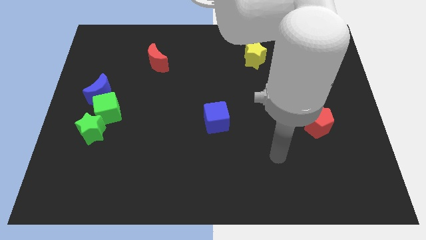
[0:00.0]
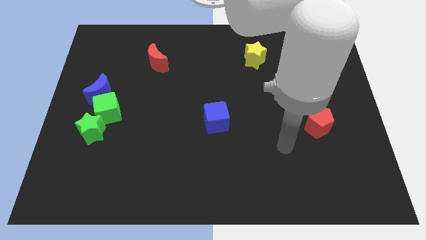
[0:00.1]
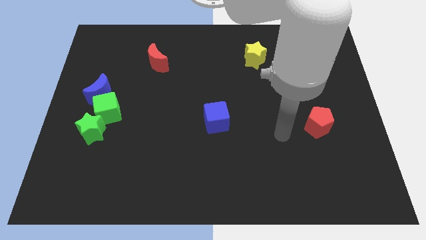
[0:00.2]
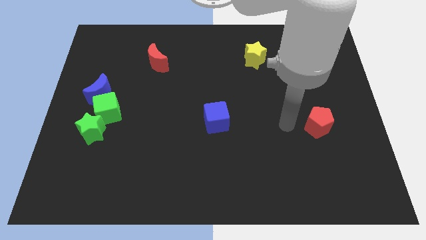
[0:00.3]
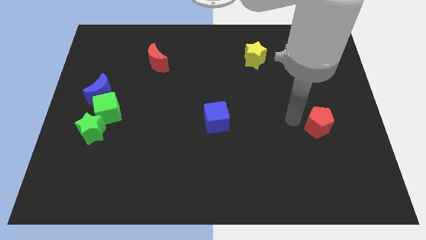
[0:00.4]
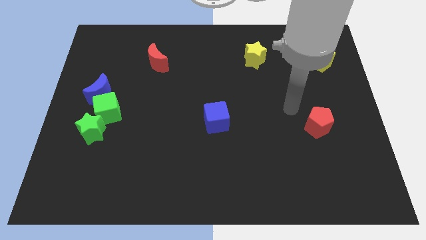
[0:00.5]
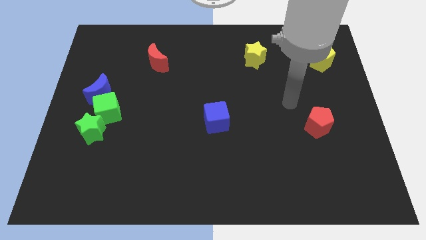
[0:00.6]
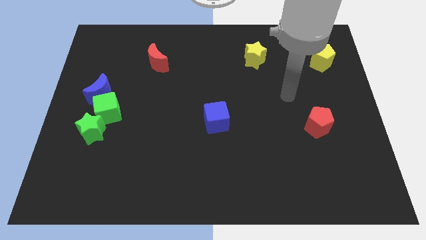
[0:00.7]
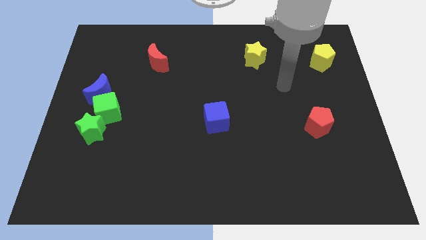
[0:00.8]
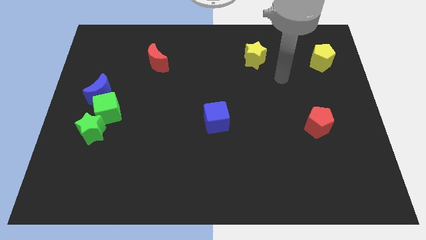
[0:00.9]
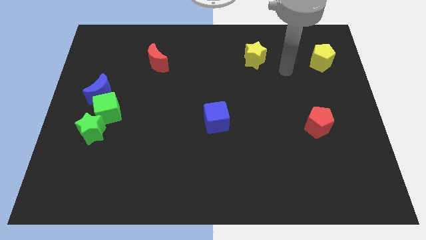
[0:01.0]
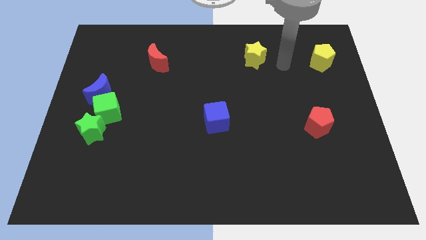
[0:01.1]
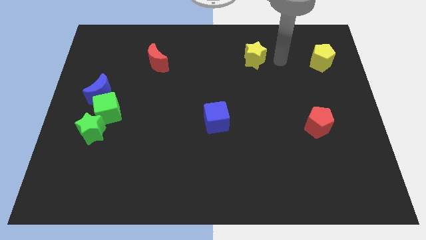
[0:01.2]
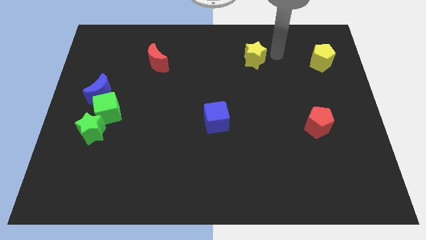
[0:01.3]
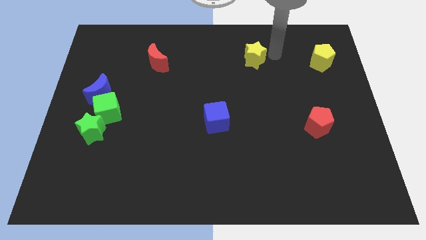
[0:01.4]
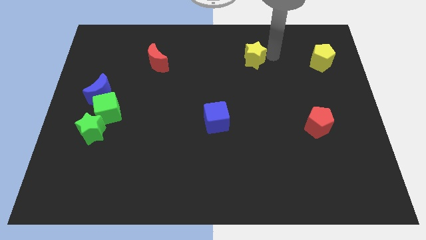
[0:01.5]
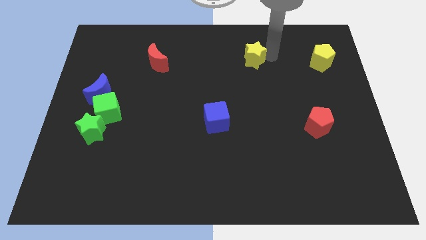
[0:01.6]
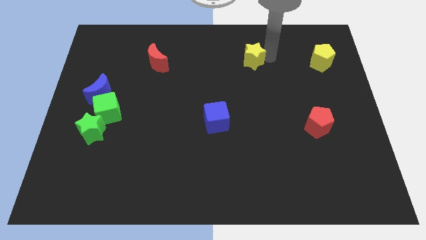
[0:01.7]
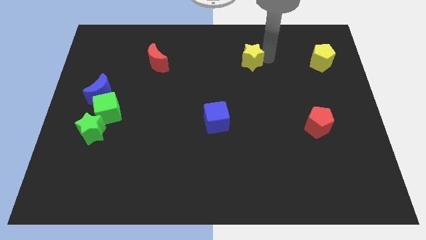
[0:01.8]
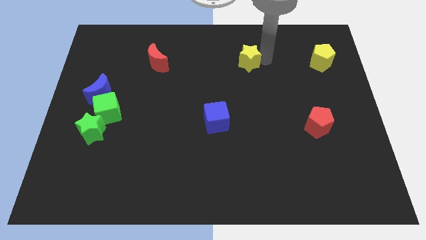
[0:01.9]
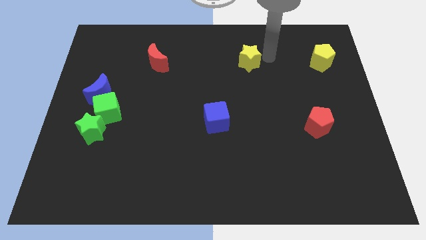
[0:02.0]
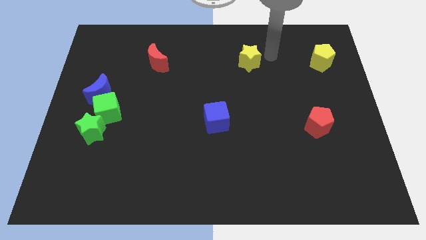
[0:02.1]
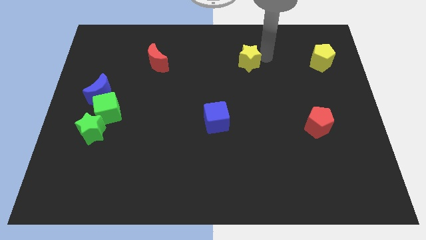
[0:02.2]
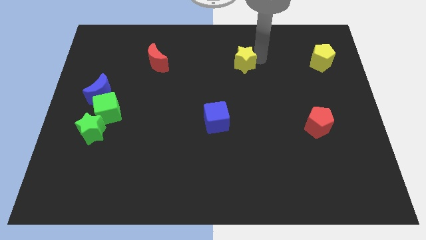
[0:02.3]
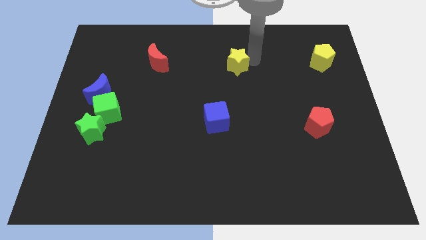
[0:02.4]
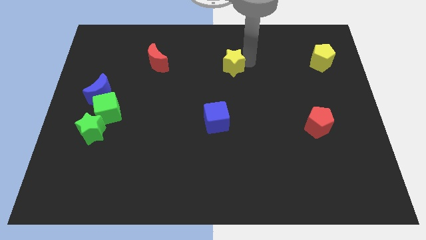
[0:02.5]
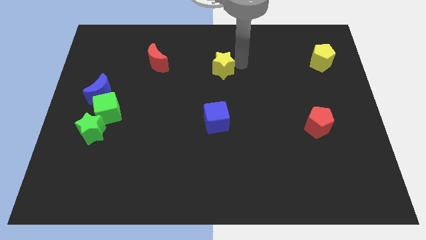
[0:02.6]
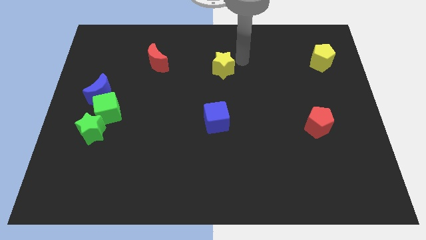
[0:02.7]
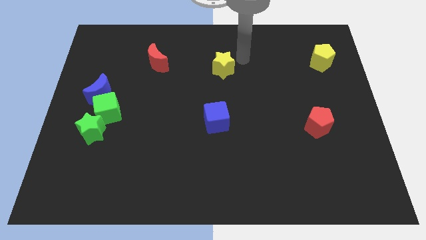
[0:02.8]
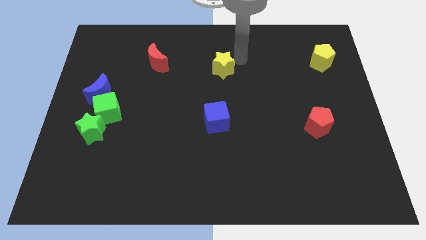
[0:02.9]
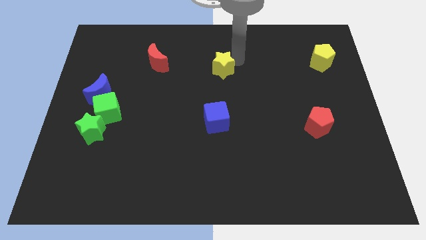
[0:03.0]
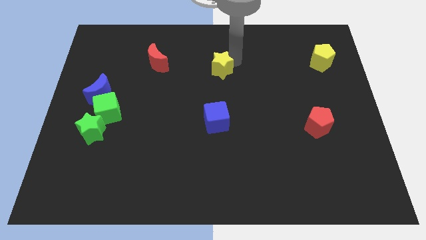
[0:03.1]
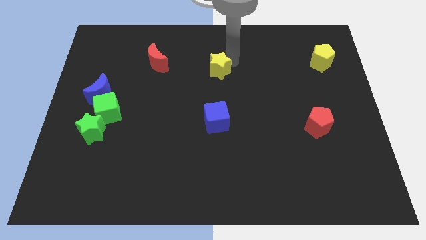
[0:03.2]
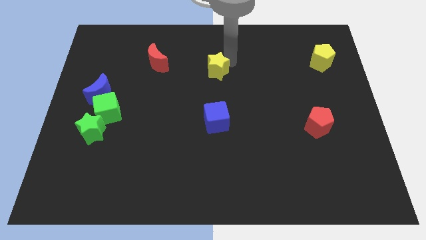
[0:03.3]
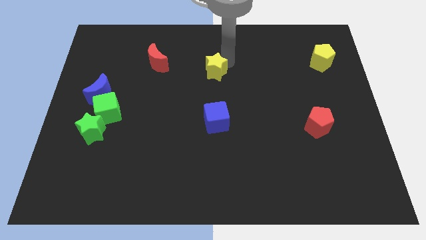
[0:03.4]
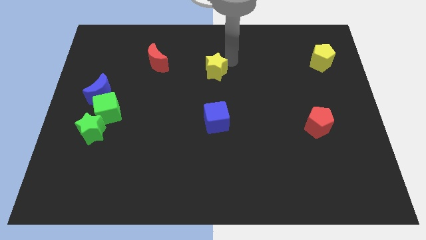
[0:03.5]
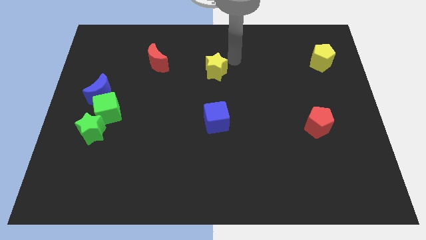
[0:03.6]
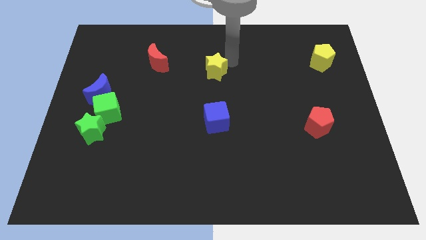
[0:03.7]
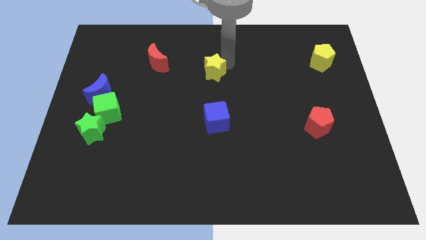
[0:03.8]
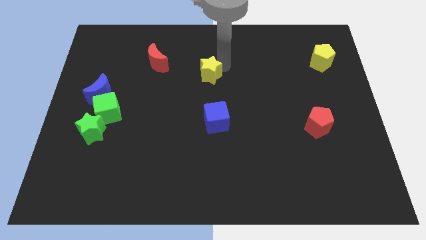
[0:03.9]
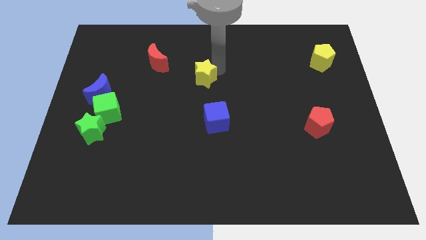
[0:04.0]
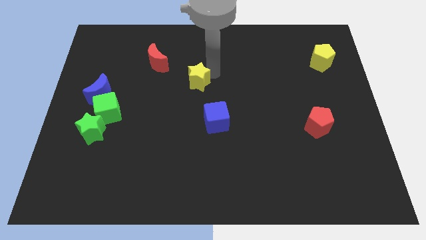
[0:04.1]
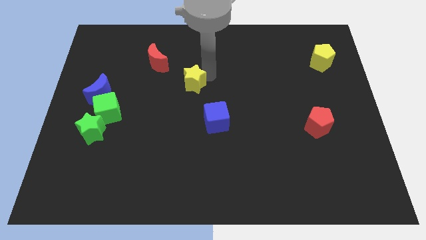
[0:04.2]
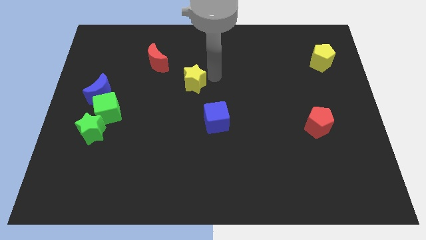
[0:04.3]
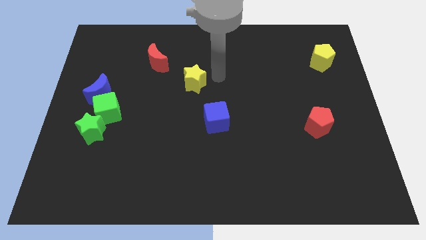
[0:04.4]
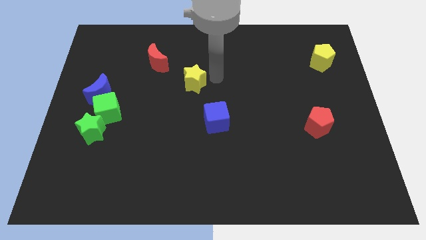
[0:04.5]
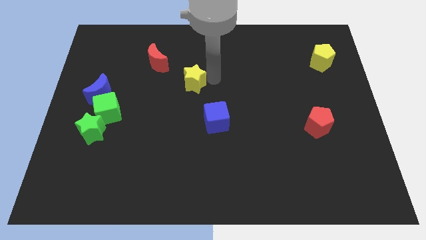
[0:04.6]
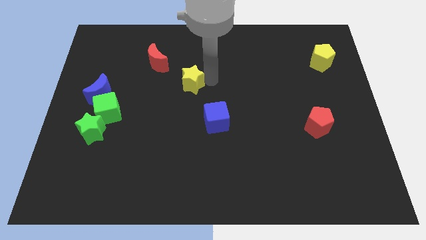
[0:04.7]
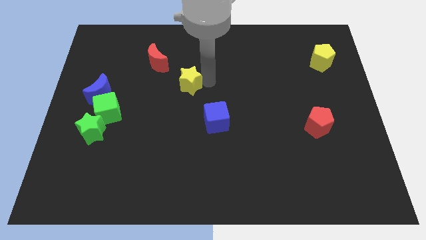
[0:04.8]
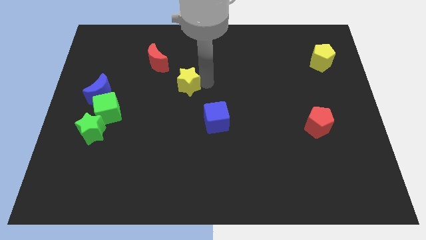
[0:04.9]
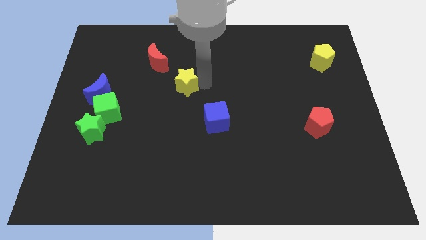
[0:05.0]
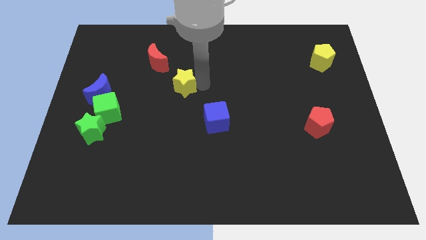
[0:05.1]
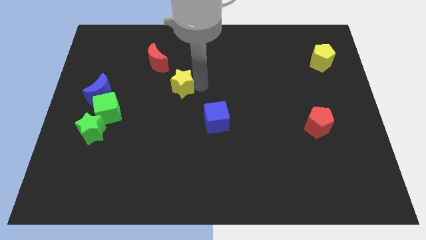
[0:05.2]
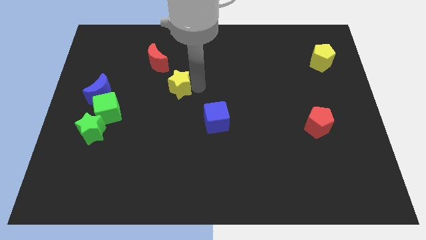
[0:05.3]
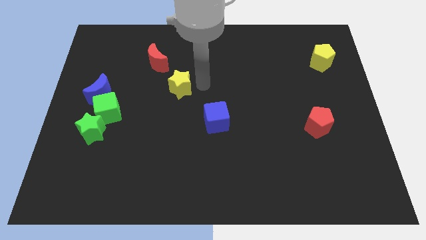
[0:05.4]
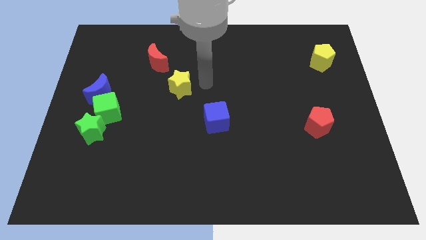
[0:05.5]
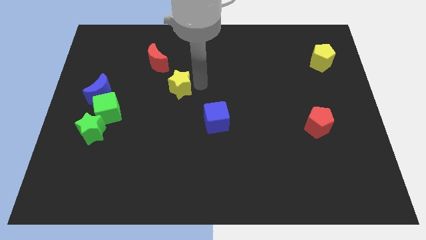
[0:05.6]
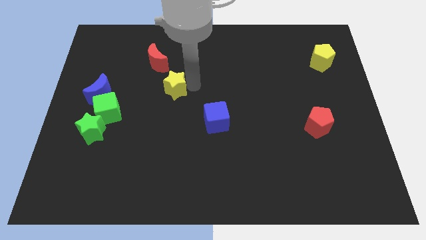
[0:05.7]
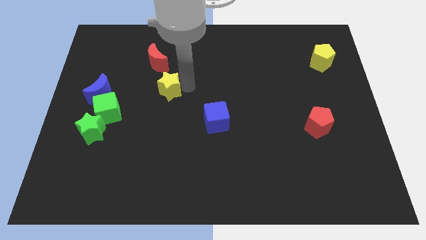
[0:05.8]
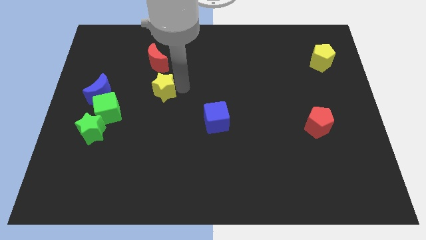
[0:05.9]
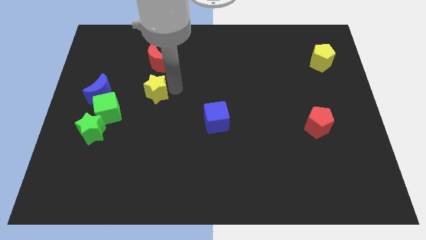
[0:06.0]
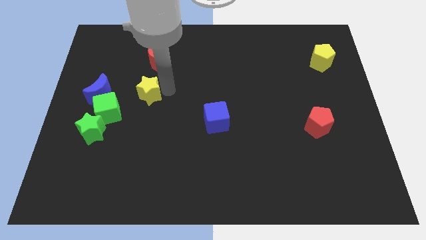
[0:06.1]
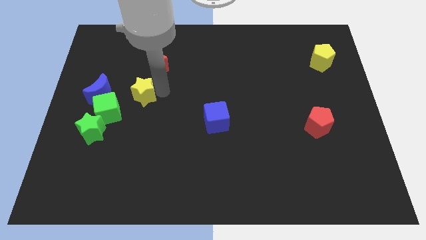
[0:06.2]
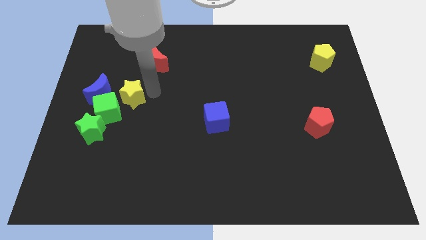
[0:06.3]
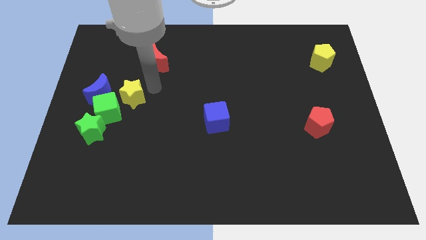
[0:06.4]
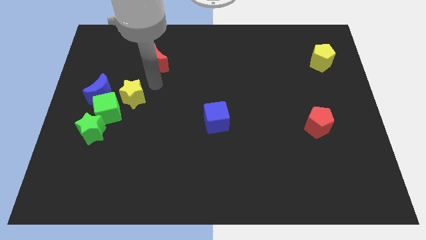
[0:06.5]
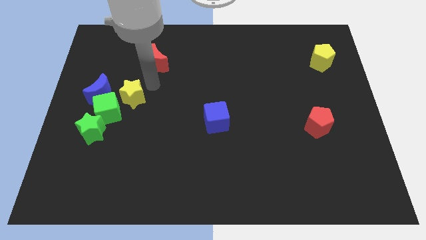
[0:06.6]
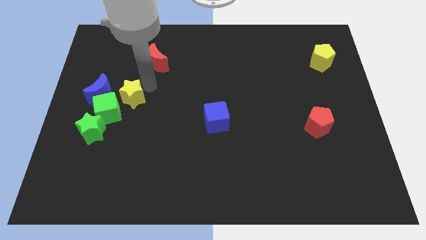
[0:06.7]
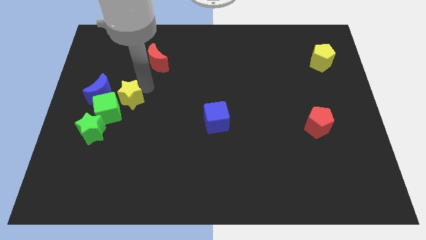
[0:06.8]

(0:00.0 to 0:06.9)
push the yellow star to the green cube

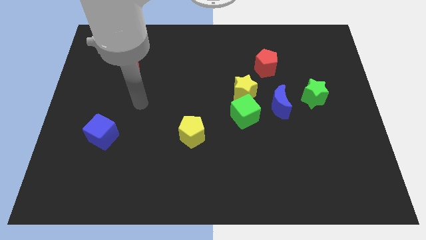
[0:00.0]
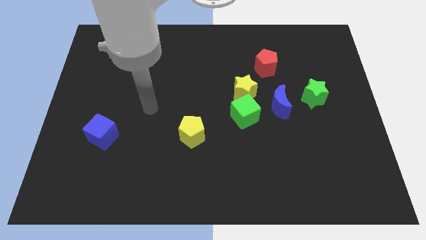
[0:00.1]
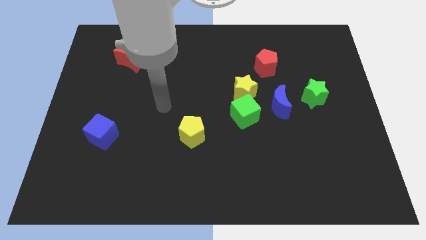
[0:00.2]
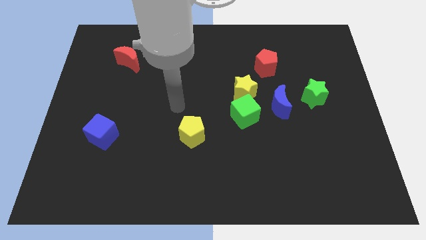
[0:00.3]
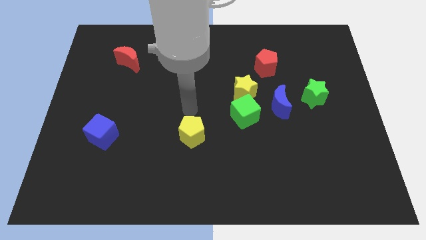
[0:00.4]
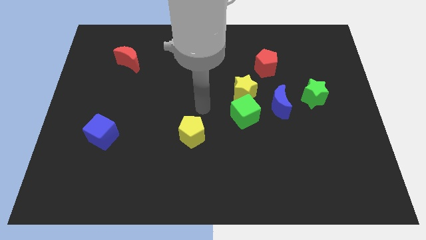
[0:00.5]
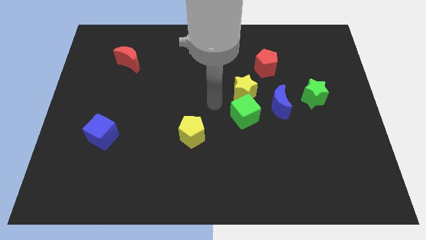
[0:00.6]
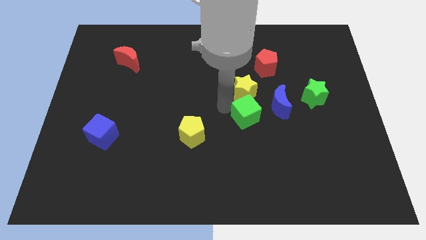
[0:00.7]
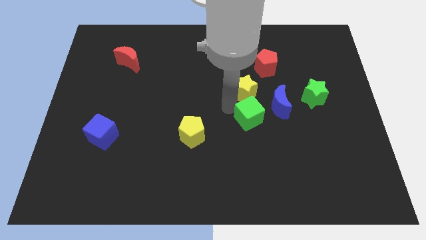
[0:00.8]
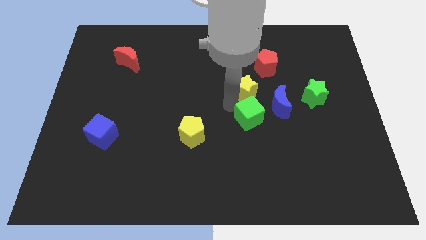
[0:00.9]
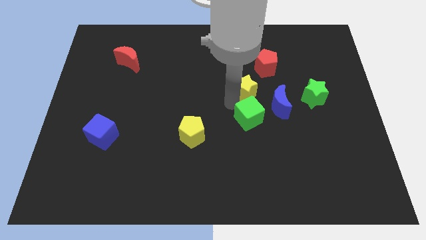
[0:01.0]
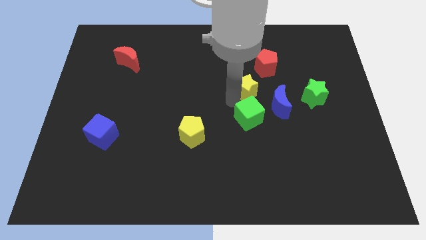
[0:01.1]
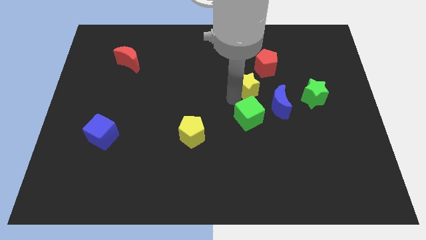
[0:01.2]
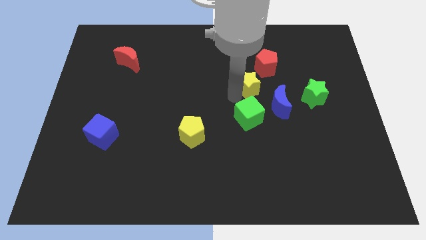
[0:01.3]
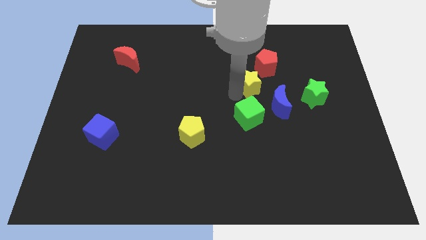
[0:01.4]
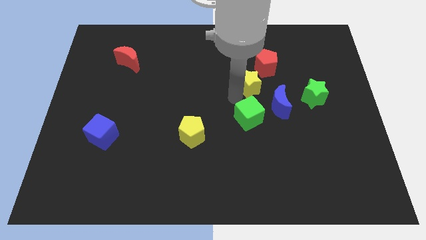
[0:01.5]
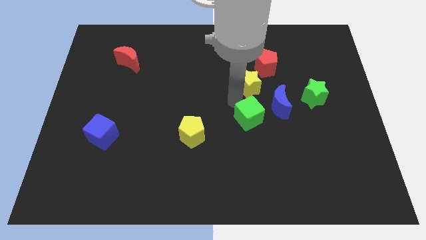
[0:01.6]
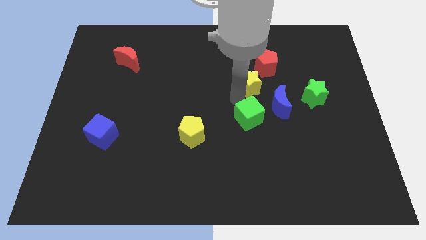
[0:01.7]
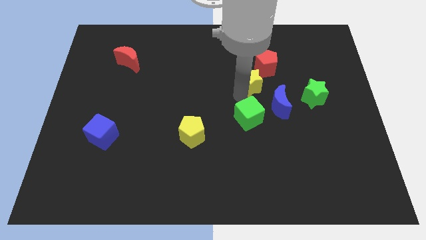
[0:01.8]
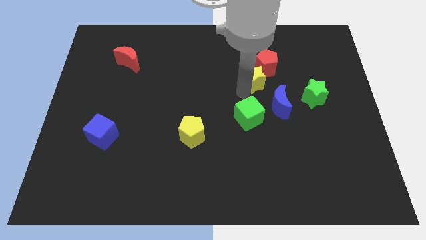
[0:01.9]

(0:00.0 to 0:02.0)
push the yellow star next to the red pentagon
